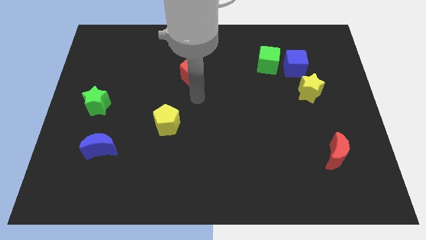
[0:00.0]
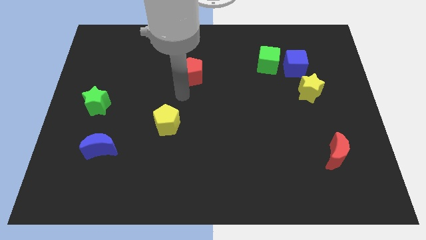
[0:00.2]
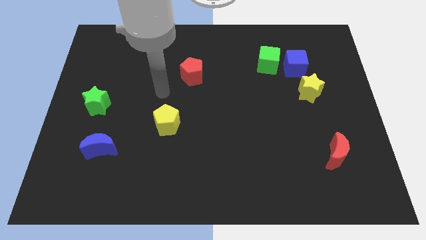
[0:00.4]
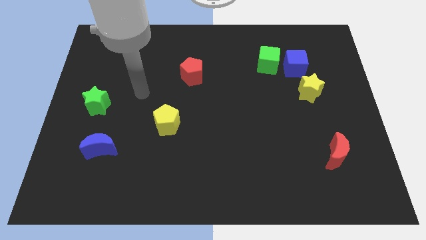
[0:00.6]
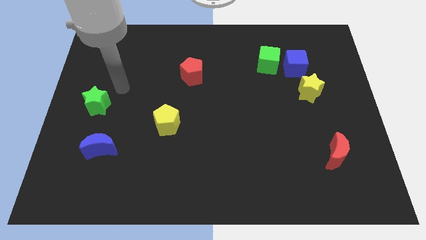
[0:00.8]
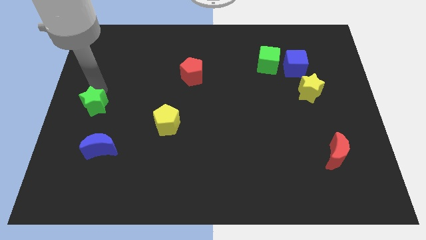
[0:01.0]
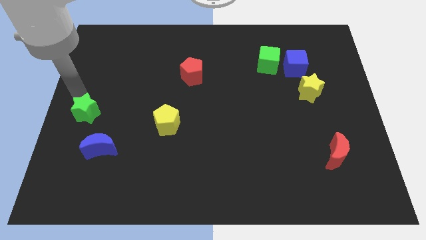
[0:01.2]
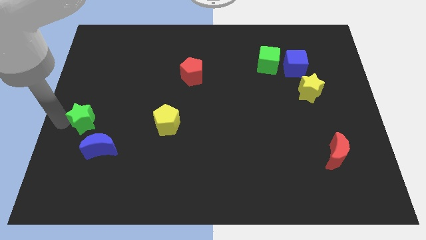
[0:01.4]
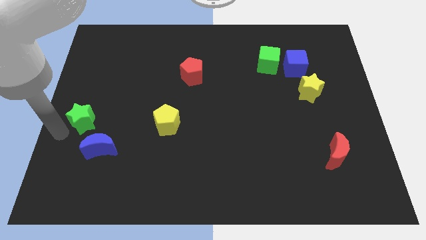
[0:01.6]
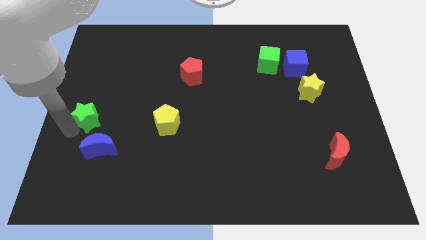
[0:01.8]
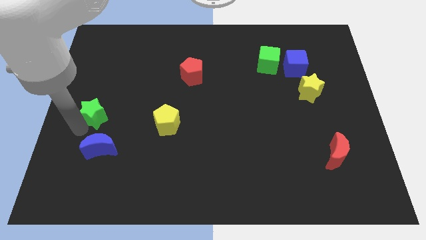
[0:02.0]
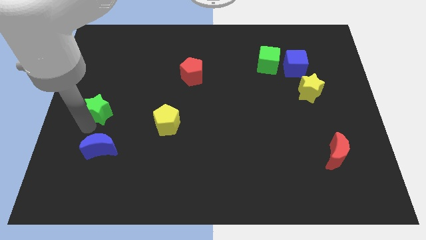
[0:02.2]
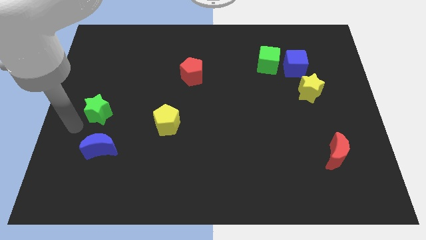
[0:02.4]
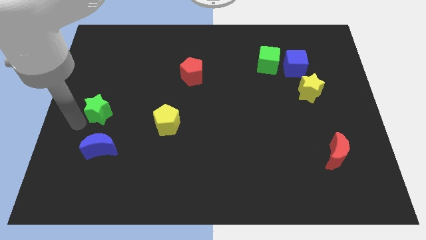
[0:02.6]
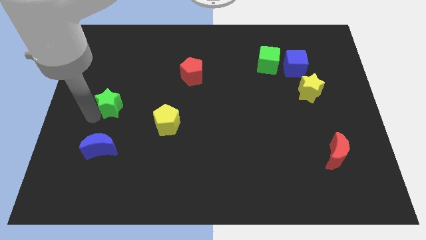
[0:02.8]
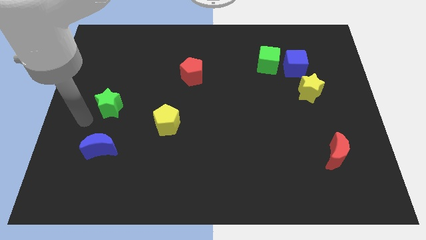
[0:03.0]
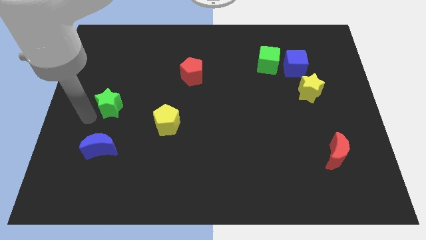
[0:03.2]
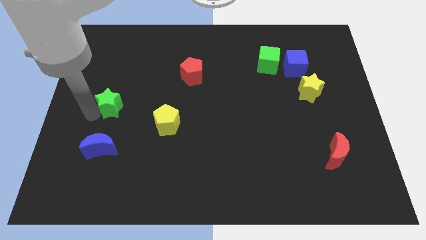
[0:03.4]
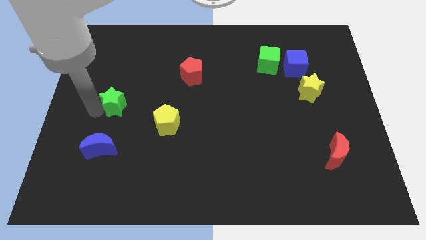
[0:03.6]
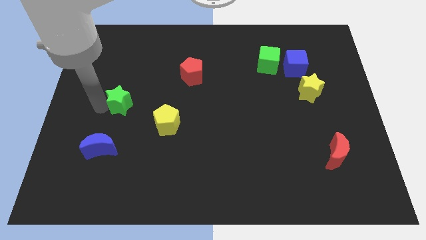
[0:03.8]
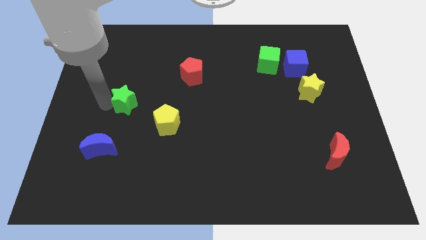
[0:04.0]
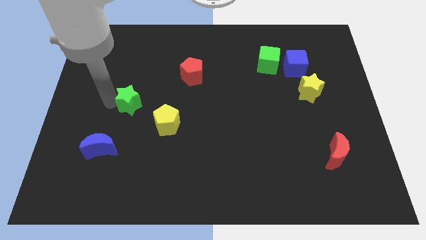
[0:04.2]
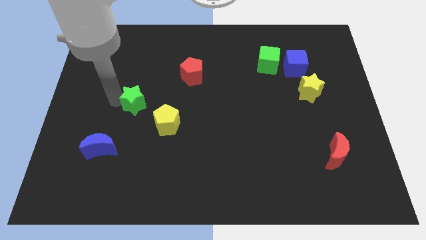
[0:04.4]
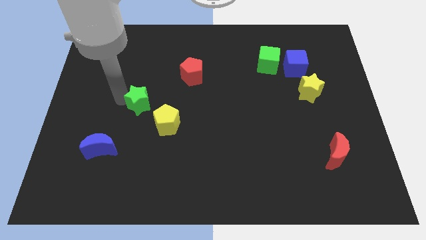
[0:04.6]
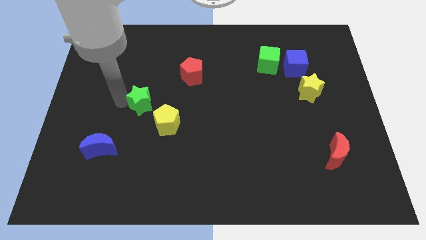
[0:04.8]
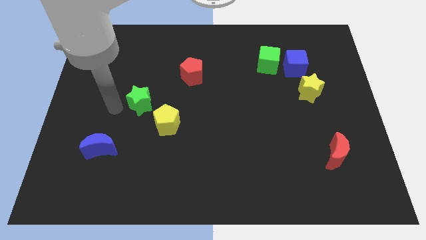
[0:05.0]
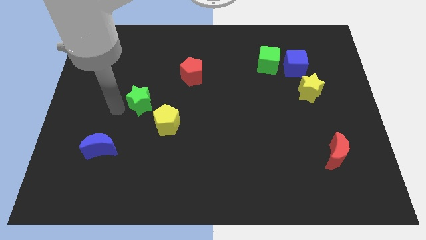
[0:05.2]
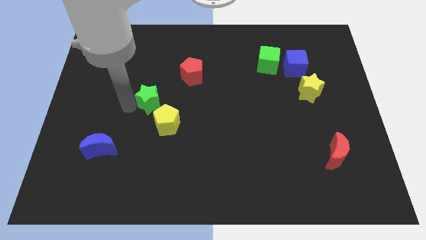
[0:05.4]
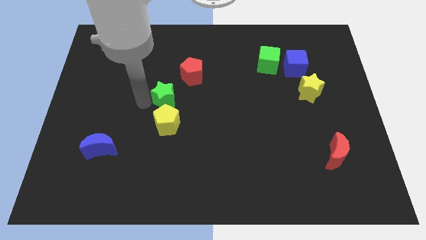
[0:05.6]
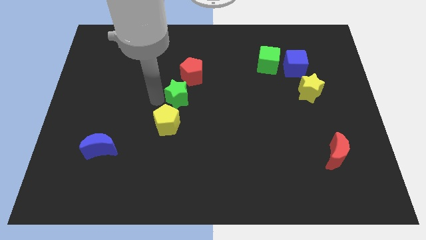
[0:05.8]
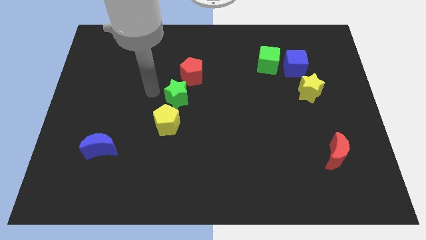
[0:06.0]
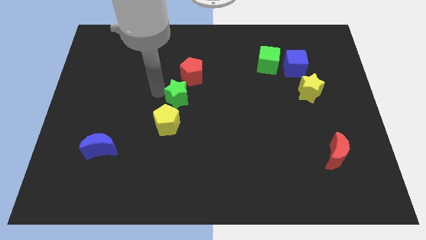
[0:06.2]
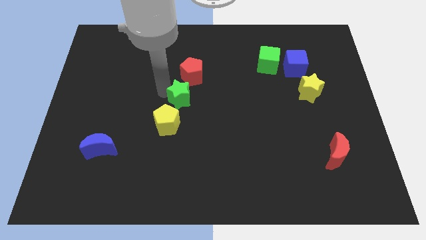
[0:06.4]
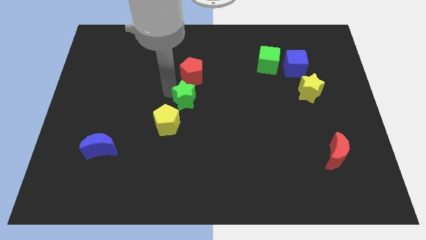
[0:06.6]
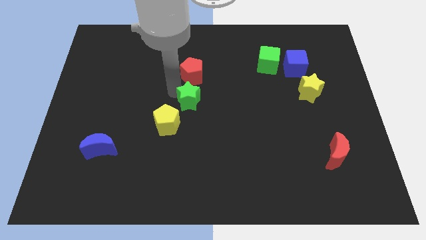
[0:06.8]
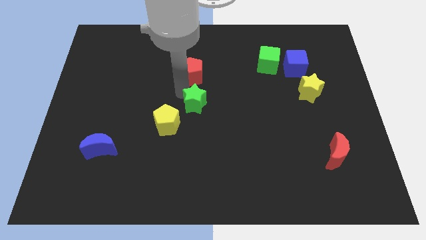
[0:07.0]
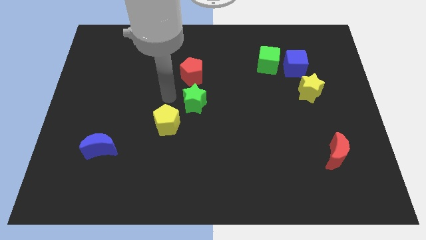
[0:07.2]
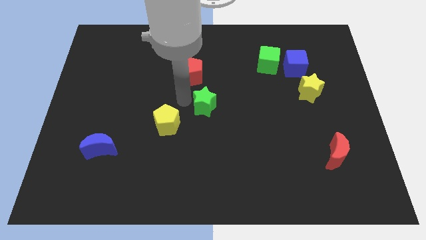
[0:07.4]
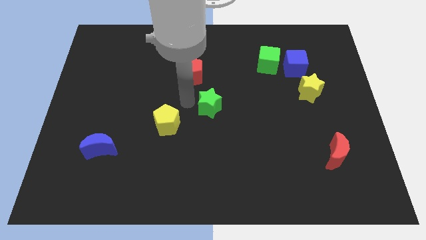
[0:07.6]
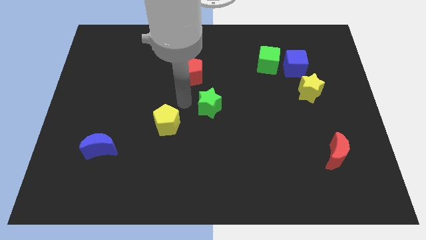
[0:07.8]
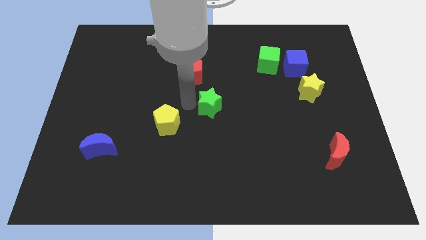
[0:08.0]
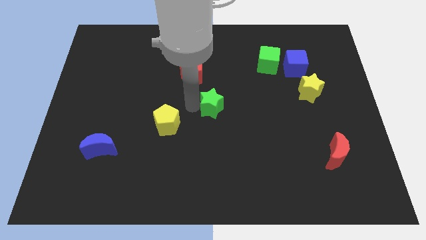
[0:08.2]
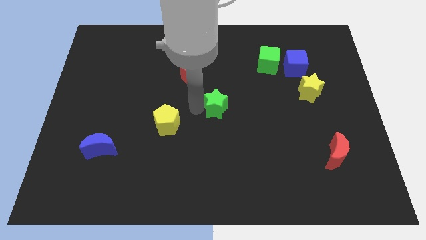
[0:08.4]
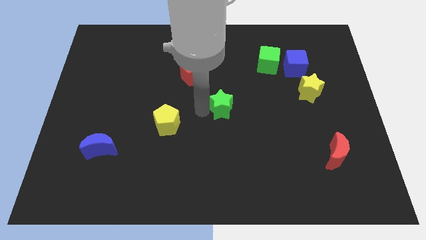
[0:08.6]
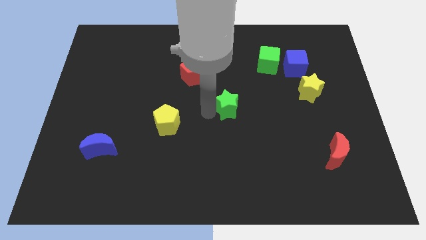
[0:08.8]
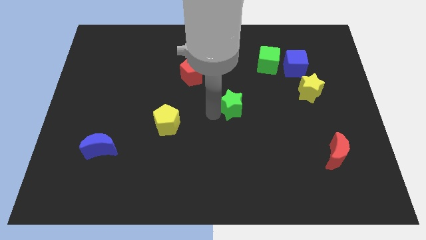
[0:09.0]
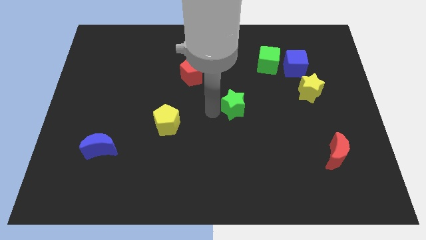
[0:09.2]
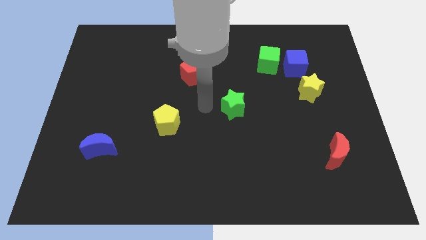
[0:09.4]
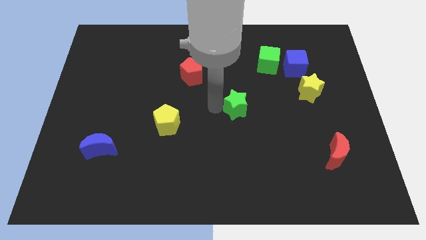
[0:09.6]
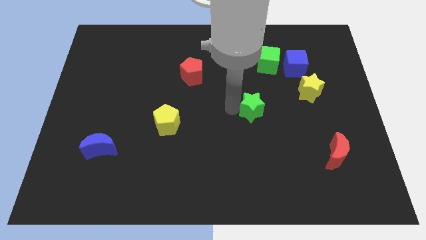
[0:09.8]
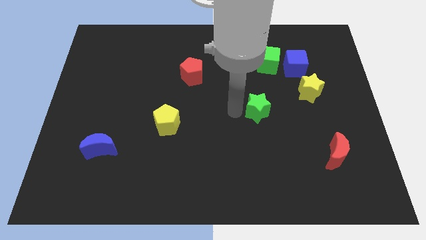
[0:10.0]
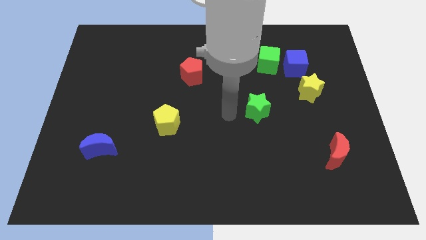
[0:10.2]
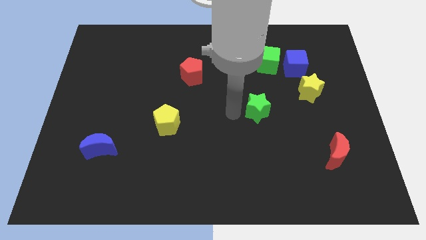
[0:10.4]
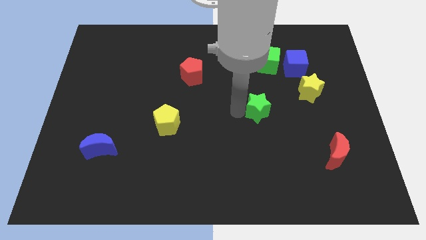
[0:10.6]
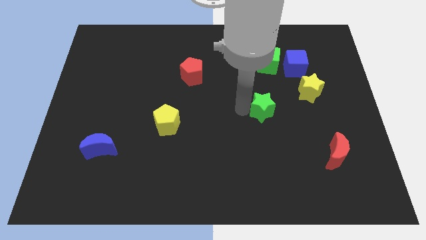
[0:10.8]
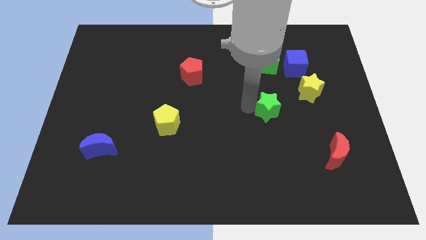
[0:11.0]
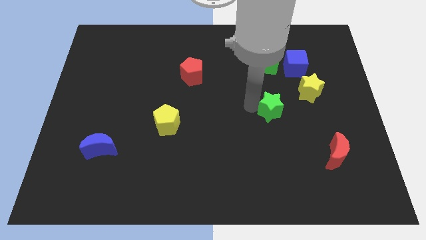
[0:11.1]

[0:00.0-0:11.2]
slide the green star diagonally down and to the left of the yellow star

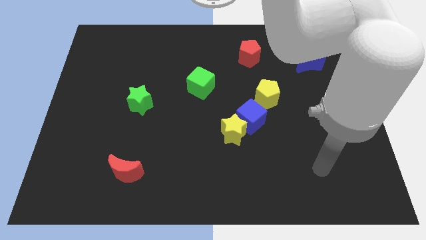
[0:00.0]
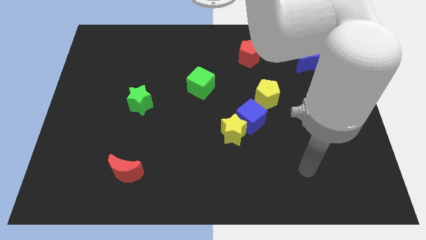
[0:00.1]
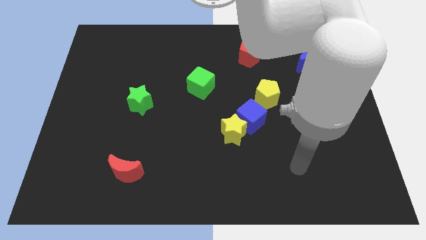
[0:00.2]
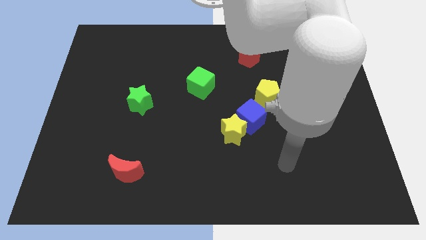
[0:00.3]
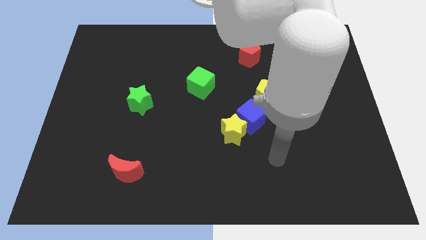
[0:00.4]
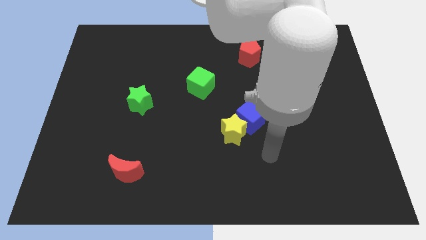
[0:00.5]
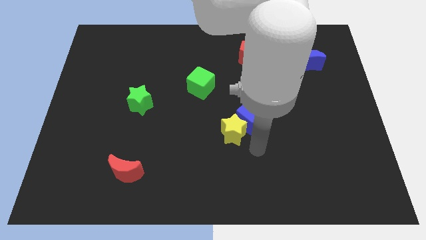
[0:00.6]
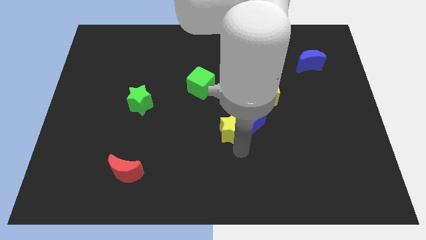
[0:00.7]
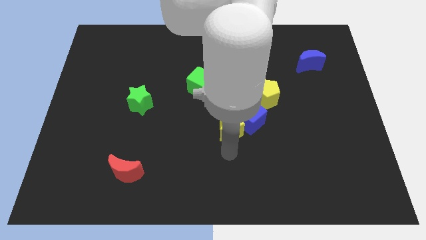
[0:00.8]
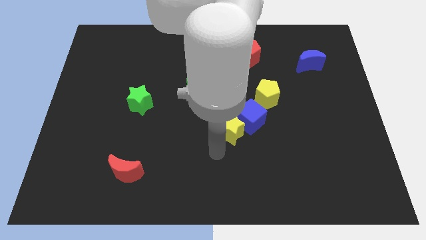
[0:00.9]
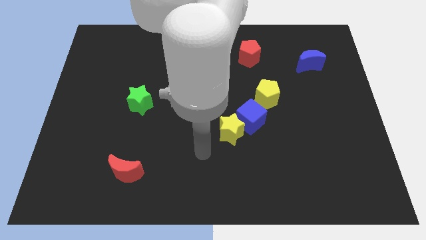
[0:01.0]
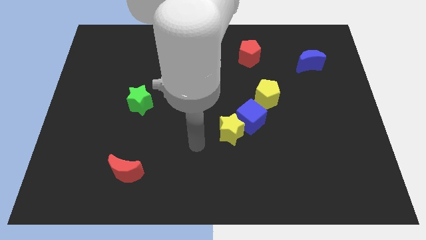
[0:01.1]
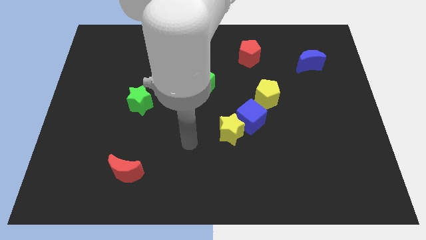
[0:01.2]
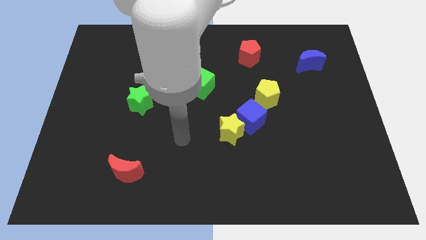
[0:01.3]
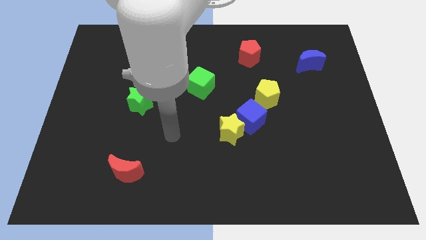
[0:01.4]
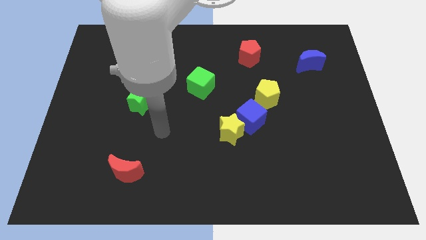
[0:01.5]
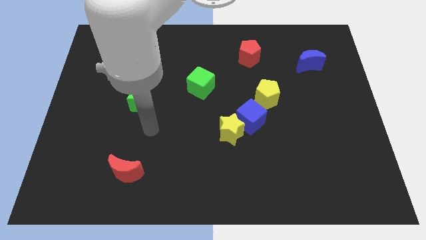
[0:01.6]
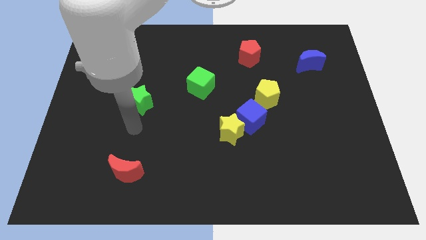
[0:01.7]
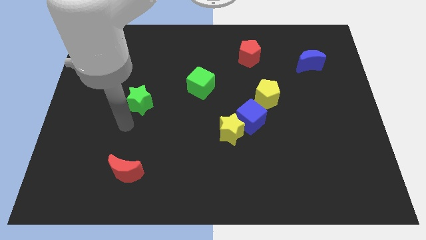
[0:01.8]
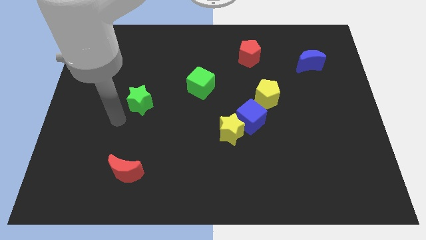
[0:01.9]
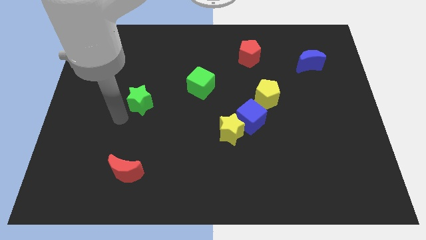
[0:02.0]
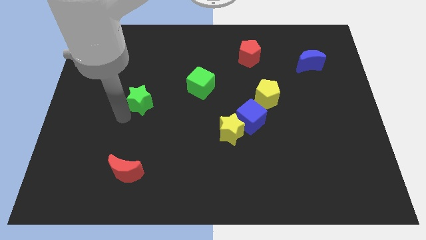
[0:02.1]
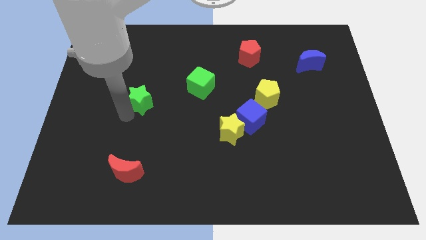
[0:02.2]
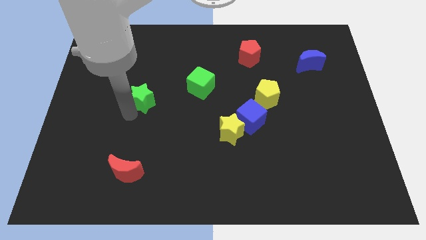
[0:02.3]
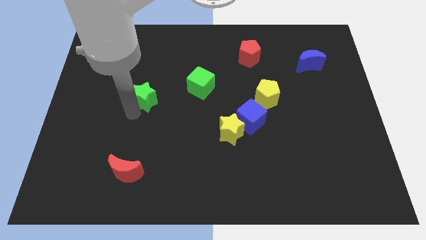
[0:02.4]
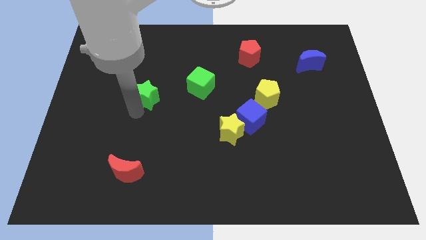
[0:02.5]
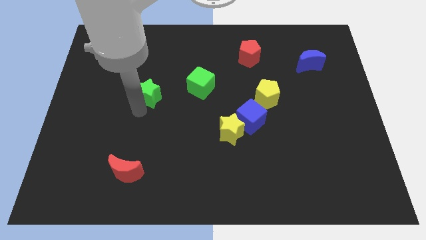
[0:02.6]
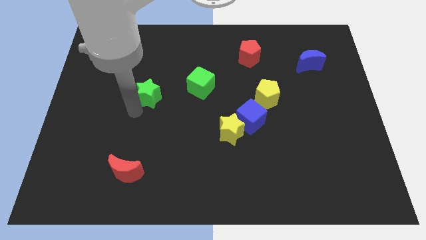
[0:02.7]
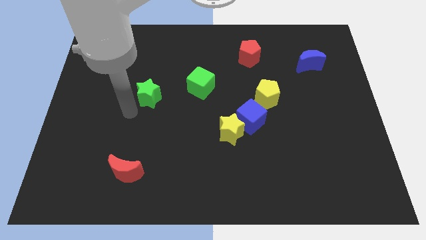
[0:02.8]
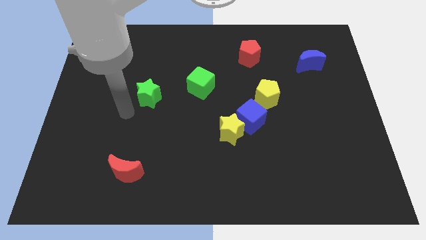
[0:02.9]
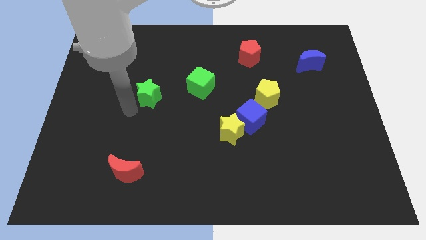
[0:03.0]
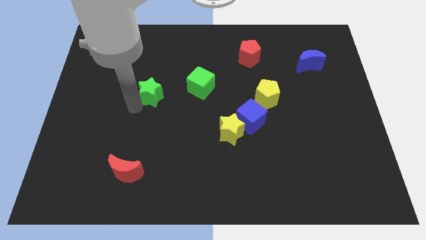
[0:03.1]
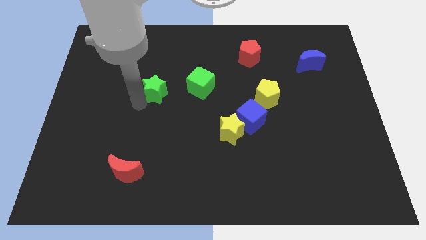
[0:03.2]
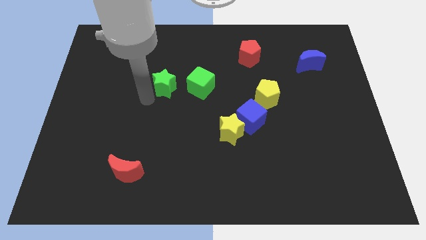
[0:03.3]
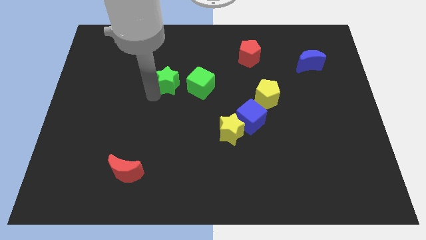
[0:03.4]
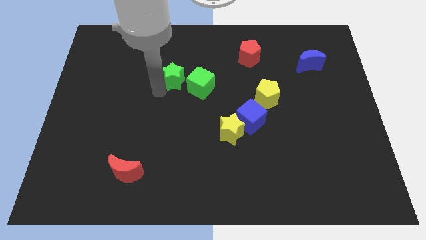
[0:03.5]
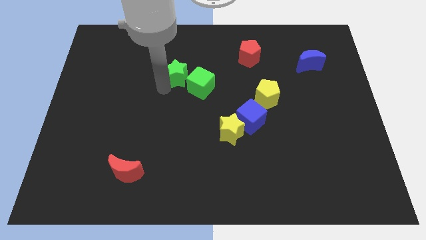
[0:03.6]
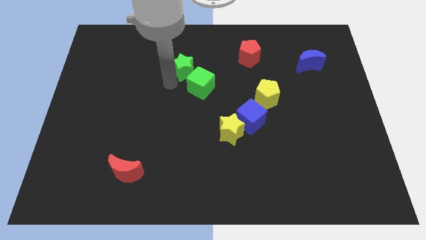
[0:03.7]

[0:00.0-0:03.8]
move the green star above the green cube
